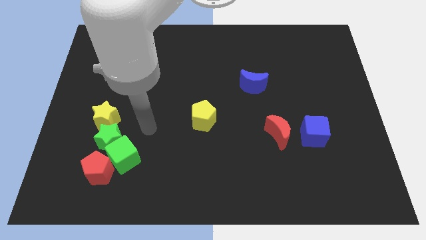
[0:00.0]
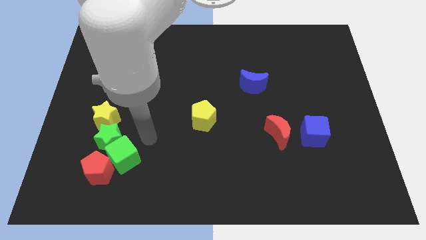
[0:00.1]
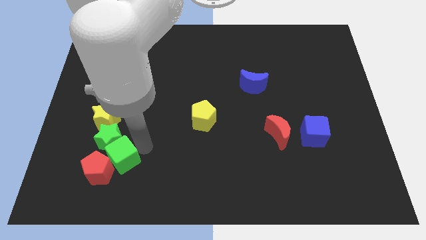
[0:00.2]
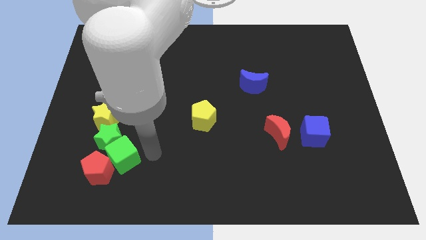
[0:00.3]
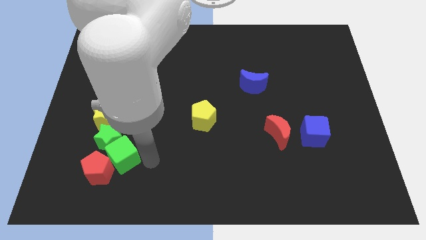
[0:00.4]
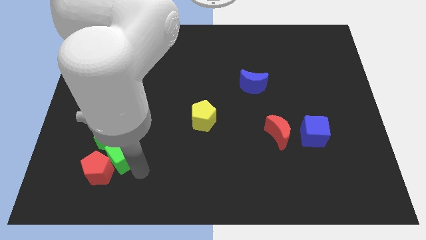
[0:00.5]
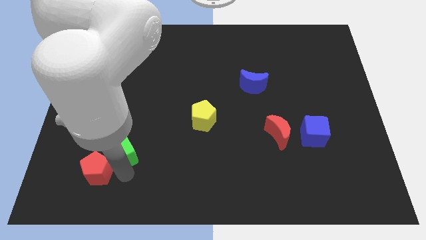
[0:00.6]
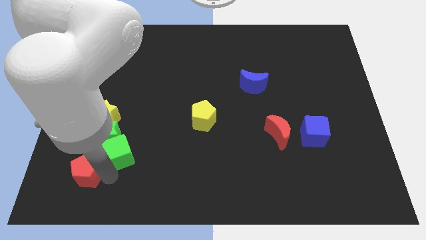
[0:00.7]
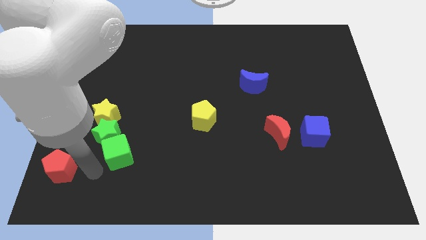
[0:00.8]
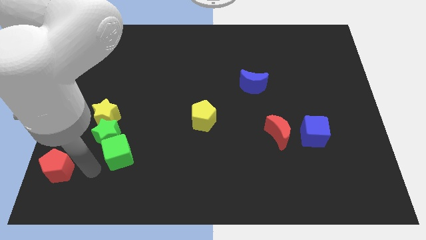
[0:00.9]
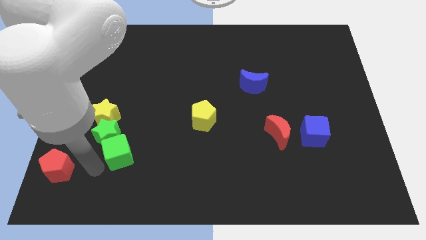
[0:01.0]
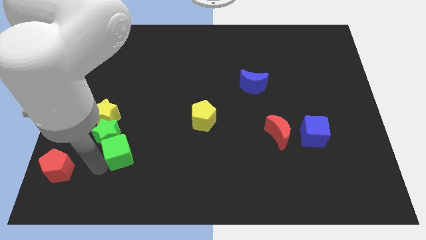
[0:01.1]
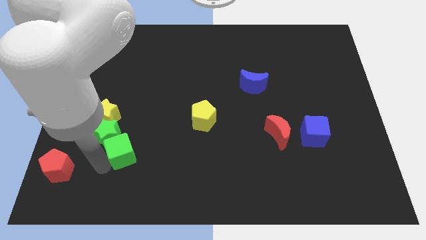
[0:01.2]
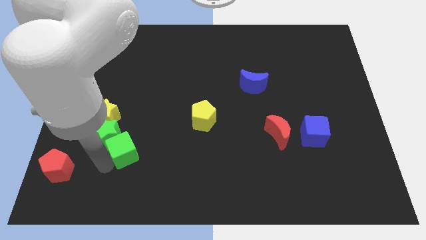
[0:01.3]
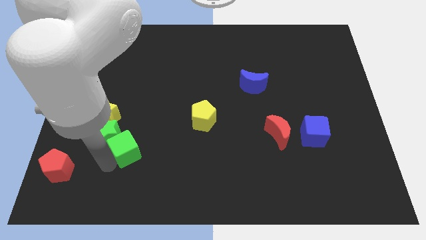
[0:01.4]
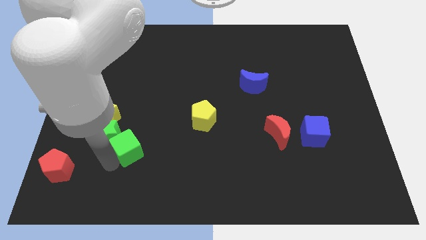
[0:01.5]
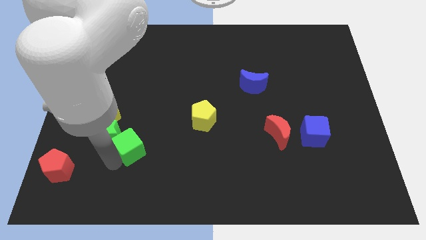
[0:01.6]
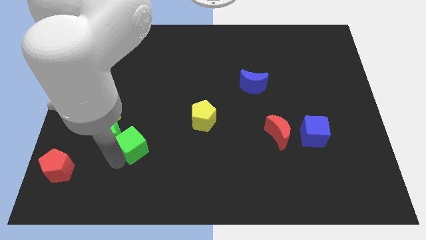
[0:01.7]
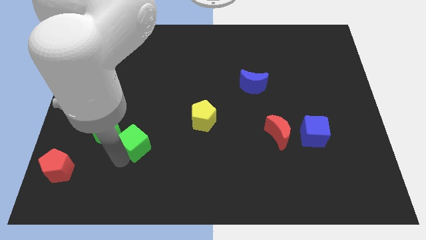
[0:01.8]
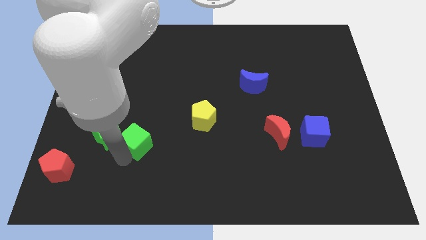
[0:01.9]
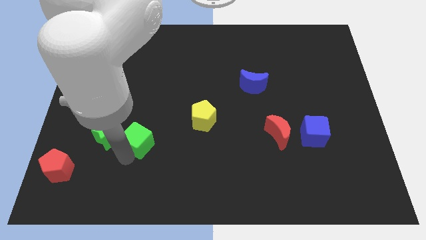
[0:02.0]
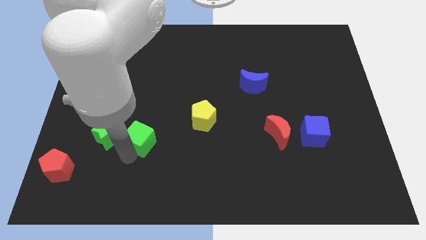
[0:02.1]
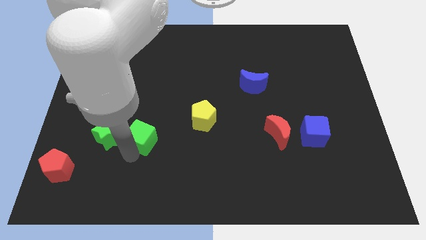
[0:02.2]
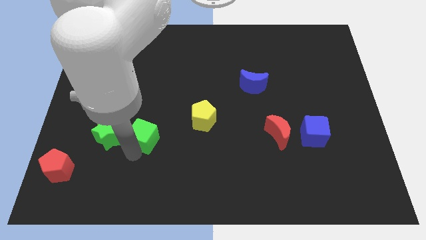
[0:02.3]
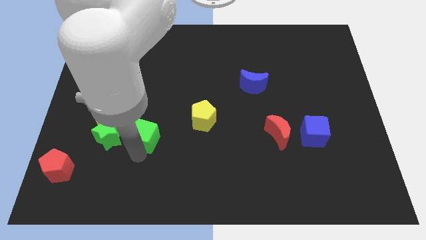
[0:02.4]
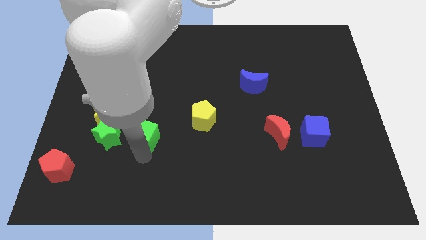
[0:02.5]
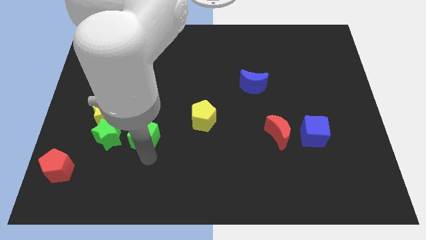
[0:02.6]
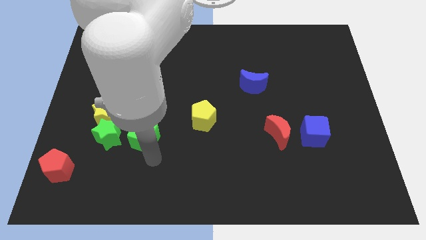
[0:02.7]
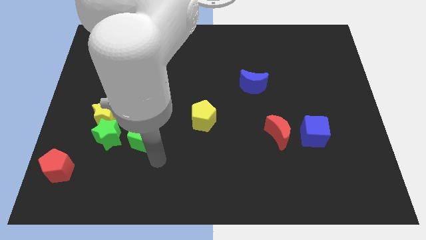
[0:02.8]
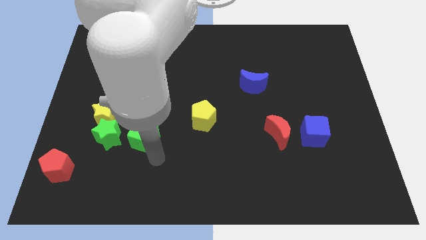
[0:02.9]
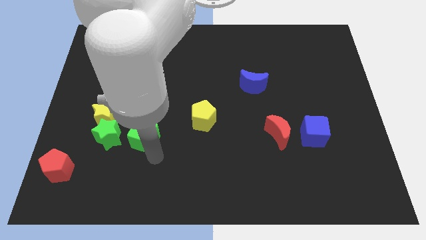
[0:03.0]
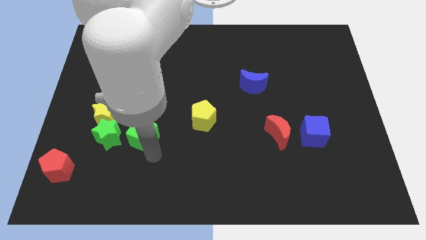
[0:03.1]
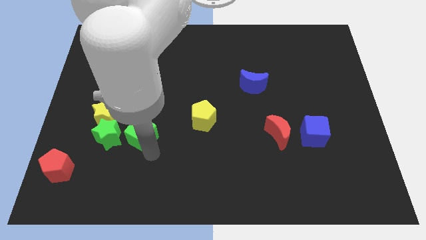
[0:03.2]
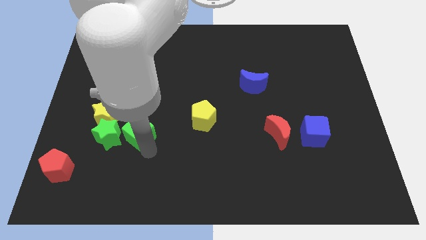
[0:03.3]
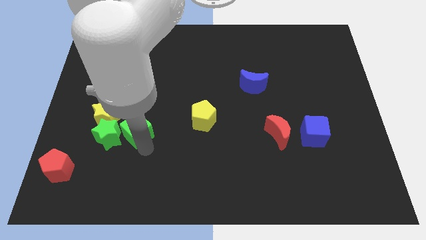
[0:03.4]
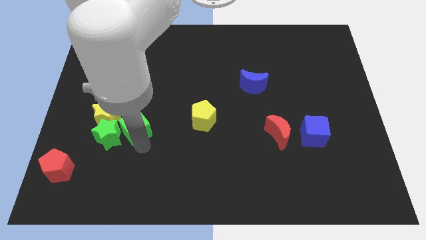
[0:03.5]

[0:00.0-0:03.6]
slightly push the green cube up

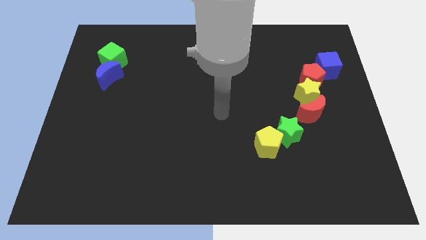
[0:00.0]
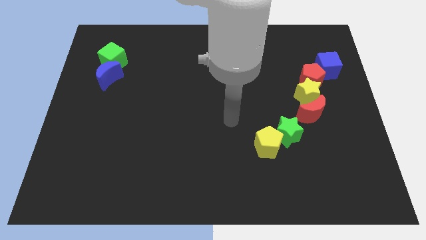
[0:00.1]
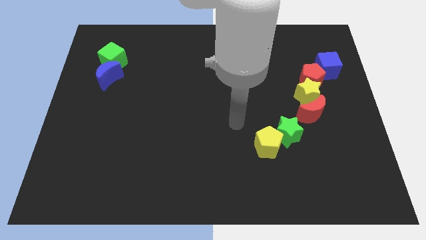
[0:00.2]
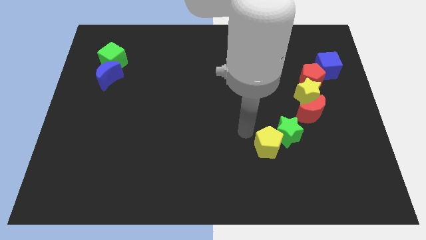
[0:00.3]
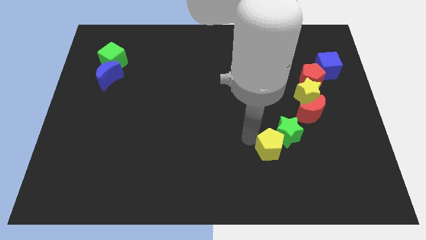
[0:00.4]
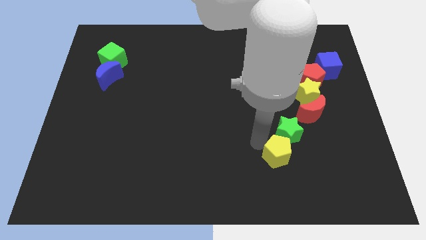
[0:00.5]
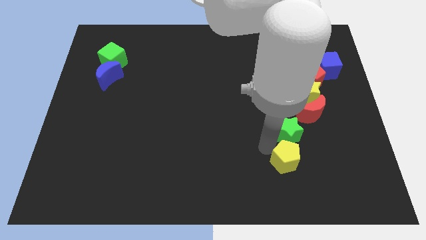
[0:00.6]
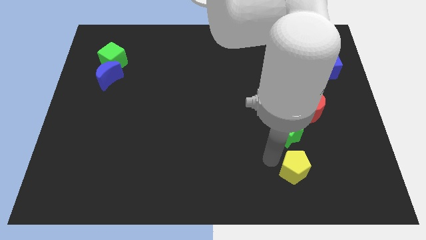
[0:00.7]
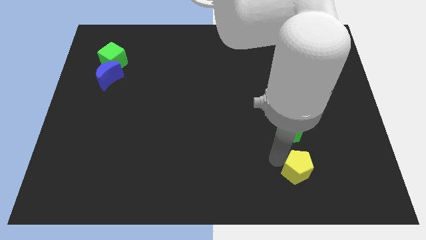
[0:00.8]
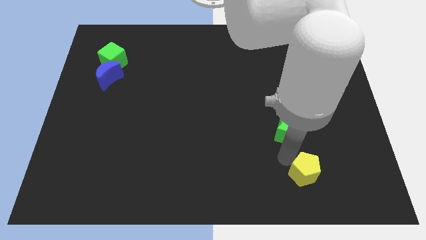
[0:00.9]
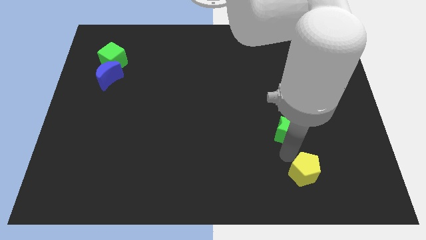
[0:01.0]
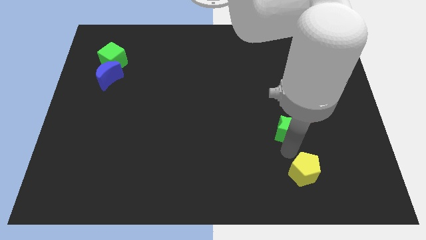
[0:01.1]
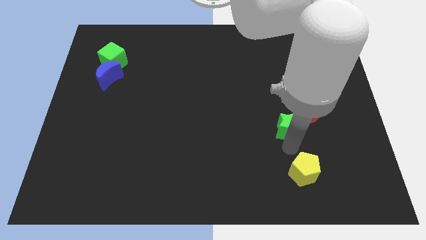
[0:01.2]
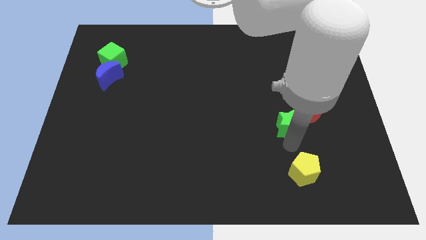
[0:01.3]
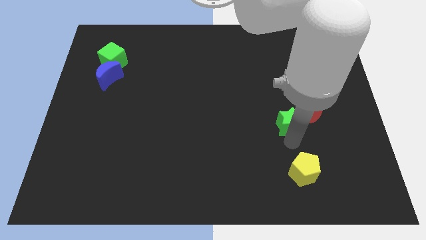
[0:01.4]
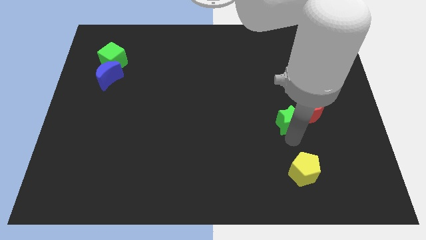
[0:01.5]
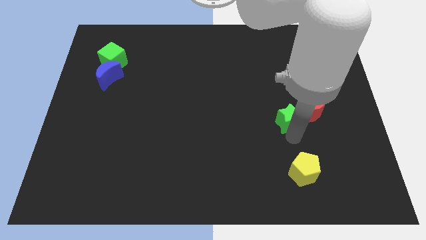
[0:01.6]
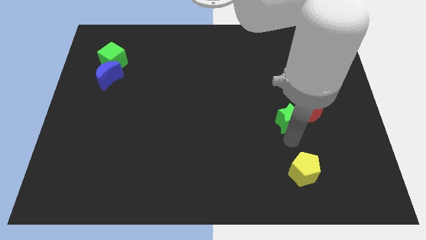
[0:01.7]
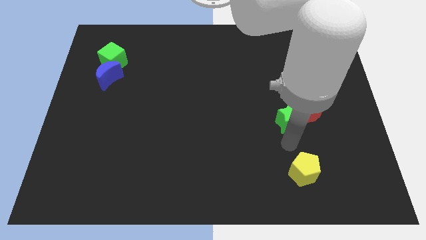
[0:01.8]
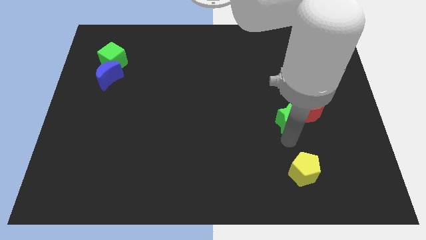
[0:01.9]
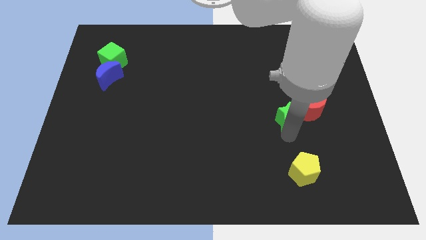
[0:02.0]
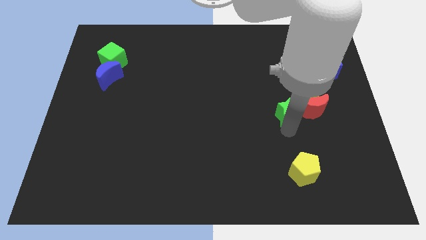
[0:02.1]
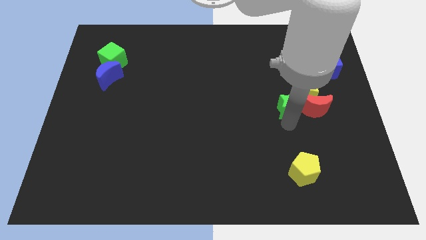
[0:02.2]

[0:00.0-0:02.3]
move the green star a bit upwards

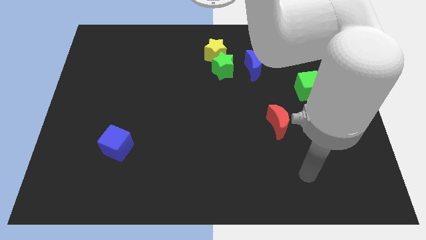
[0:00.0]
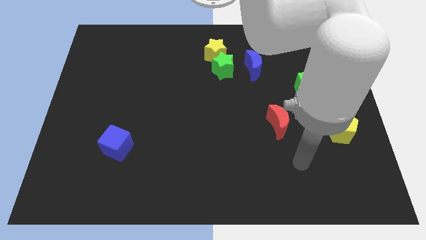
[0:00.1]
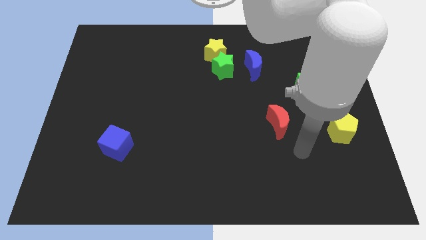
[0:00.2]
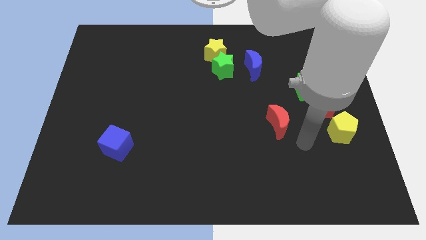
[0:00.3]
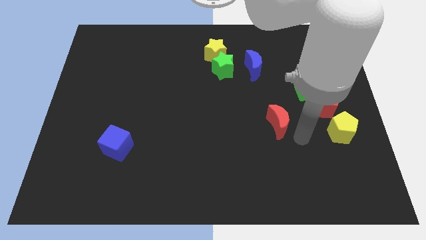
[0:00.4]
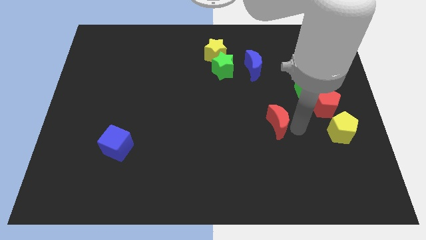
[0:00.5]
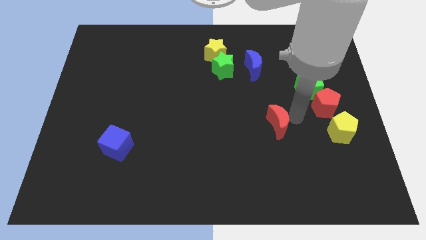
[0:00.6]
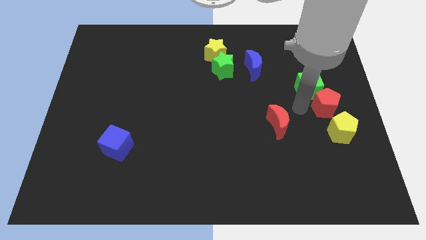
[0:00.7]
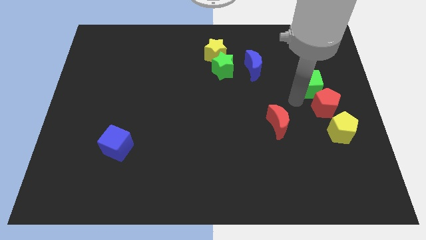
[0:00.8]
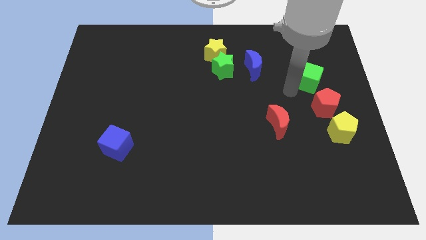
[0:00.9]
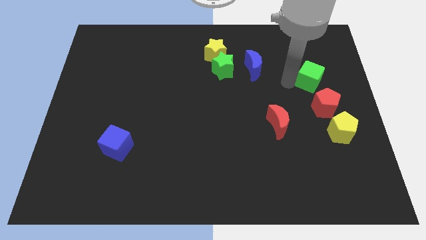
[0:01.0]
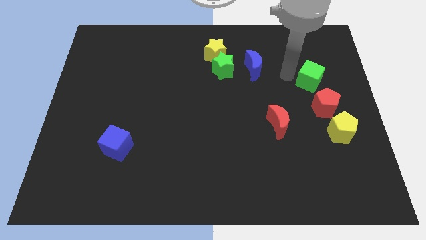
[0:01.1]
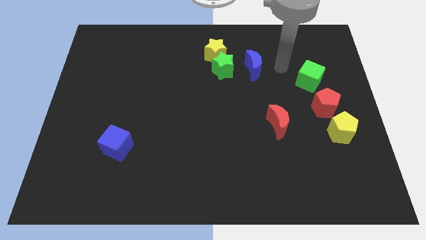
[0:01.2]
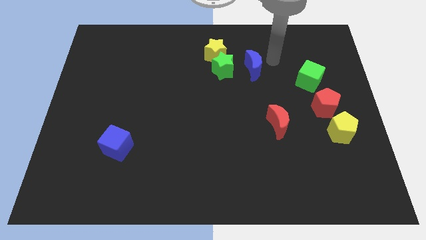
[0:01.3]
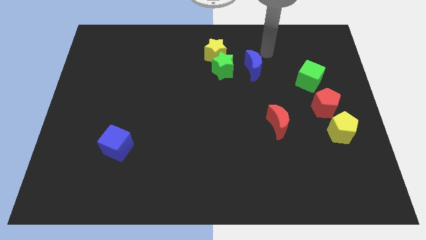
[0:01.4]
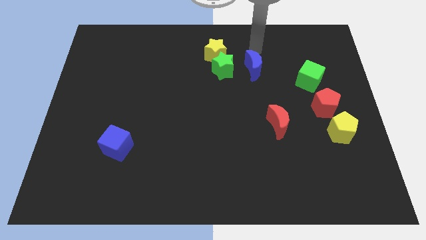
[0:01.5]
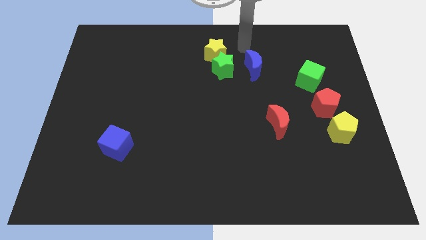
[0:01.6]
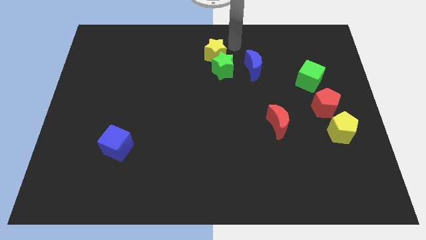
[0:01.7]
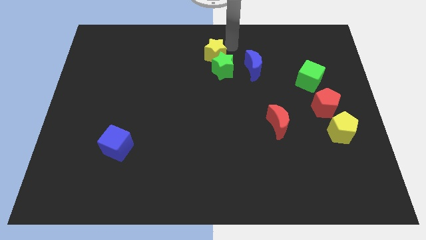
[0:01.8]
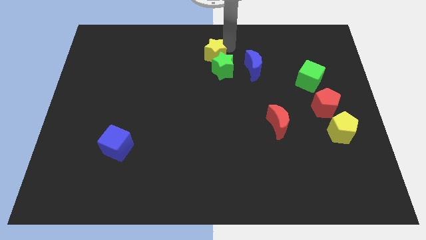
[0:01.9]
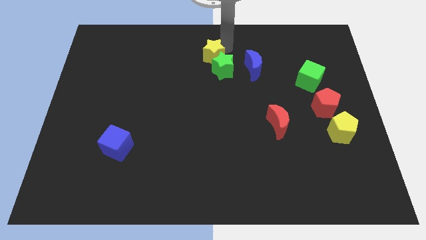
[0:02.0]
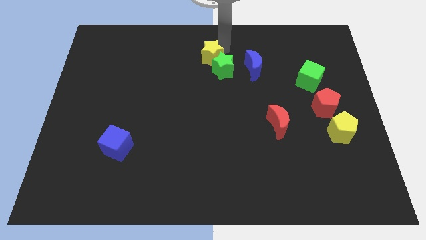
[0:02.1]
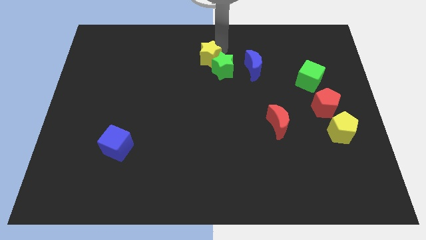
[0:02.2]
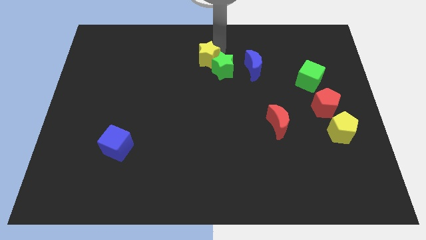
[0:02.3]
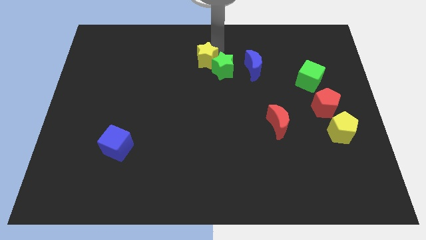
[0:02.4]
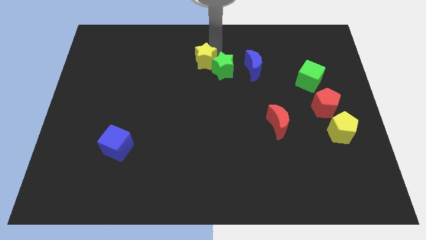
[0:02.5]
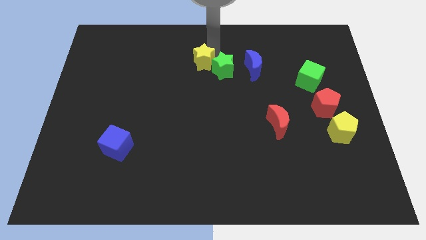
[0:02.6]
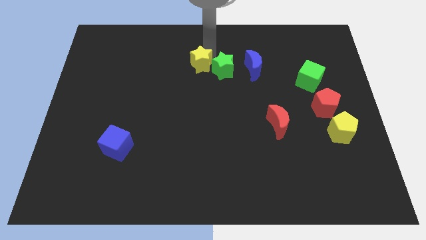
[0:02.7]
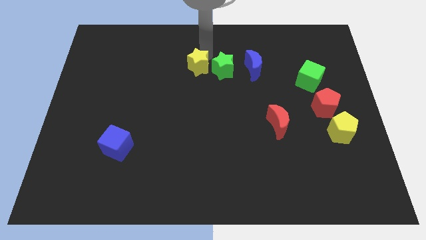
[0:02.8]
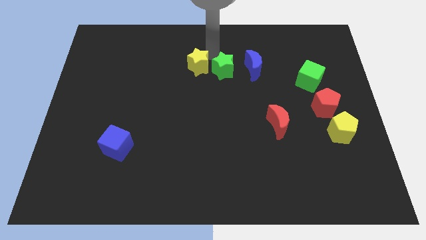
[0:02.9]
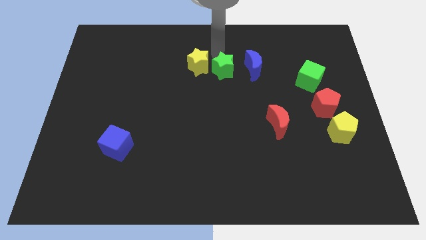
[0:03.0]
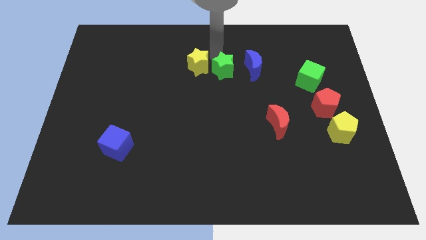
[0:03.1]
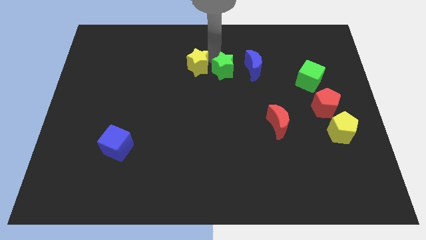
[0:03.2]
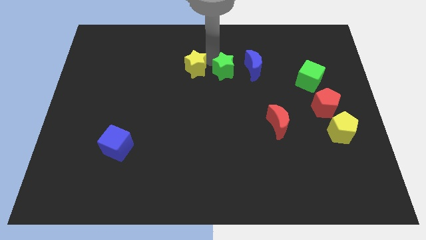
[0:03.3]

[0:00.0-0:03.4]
slide the yellow star down and left somewhat
